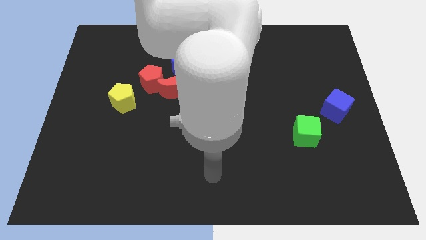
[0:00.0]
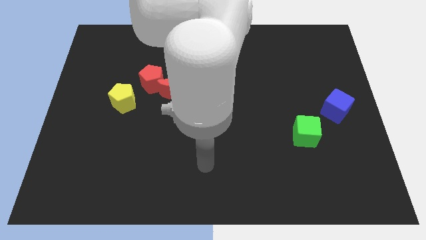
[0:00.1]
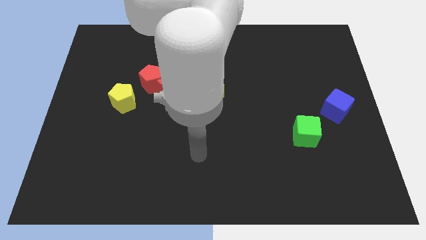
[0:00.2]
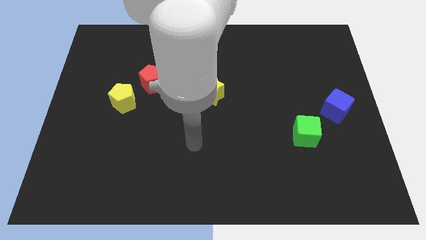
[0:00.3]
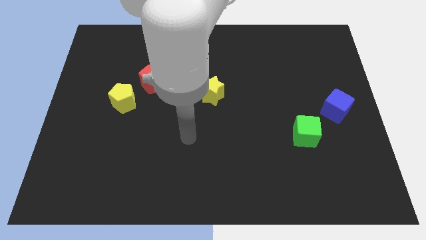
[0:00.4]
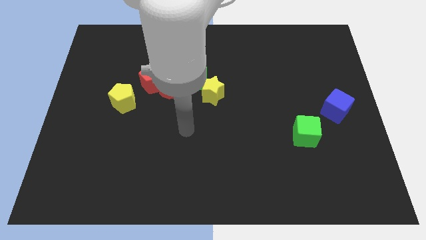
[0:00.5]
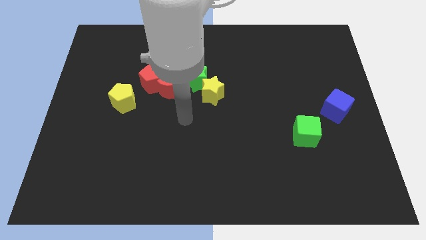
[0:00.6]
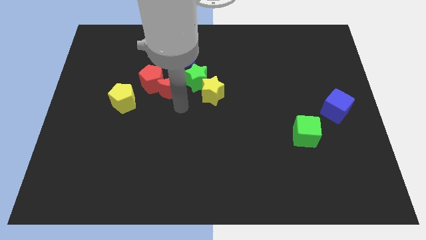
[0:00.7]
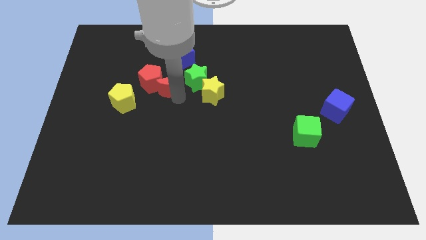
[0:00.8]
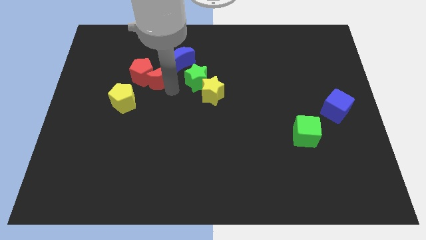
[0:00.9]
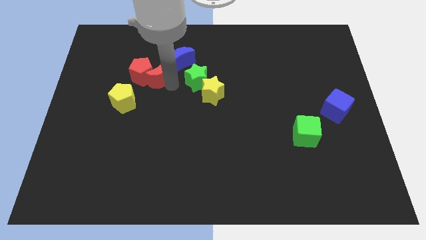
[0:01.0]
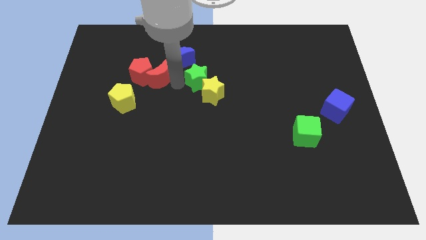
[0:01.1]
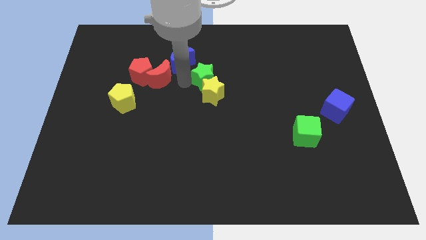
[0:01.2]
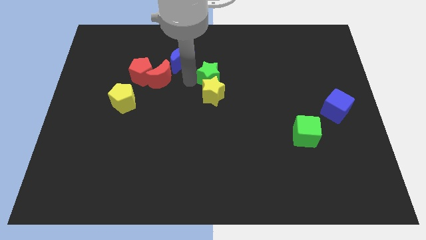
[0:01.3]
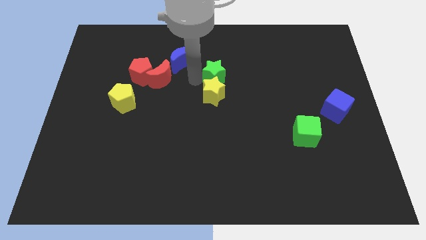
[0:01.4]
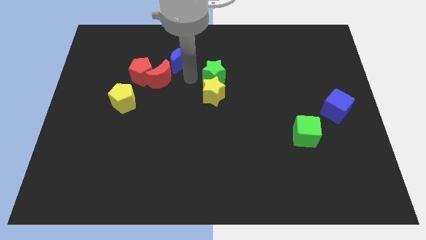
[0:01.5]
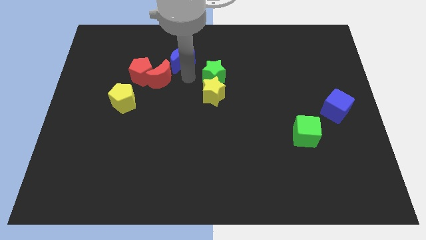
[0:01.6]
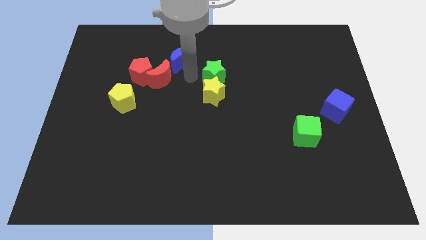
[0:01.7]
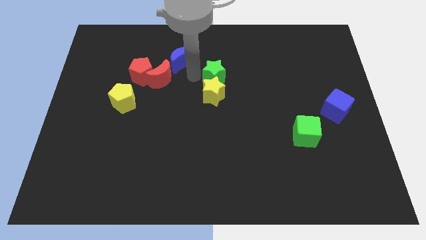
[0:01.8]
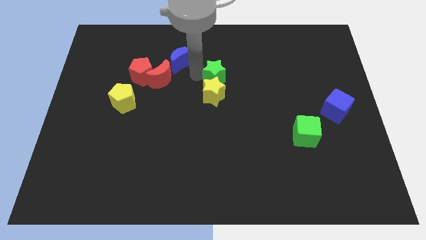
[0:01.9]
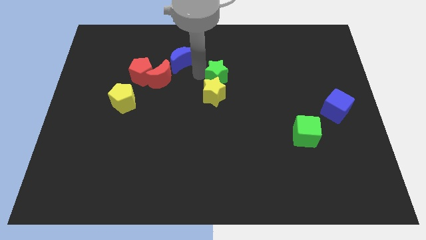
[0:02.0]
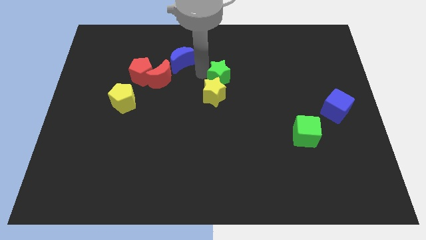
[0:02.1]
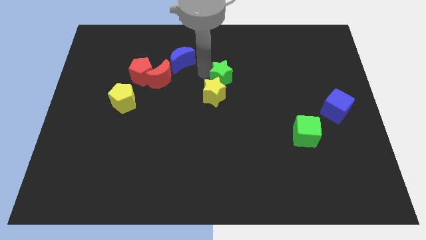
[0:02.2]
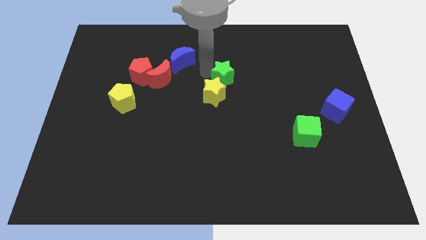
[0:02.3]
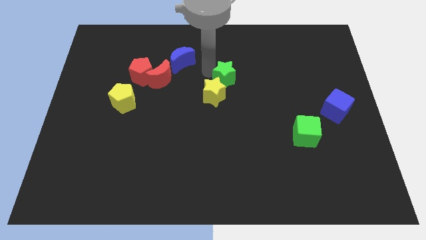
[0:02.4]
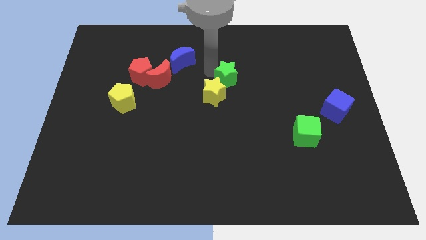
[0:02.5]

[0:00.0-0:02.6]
separate the green star from the clump

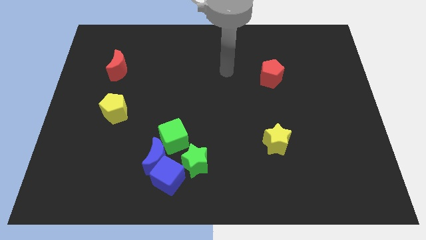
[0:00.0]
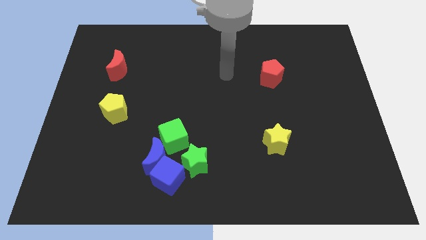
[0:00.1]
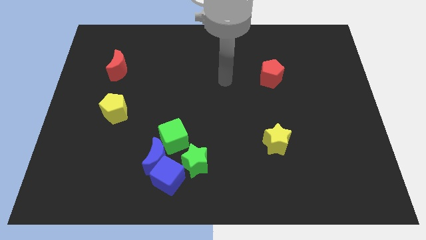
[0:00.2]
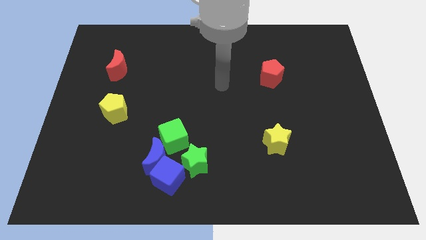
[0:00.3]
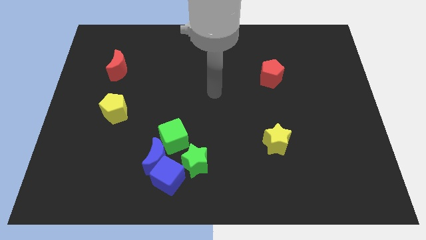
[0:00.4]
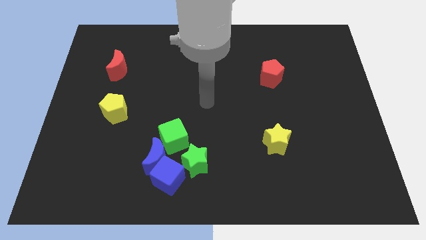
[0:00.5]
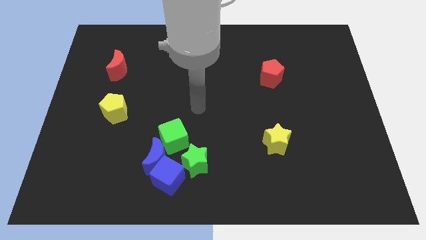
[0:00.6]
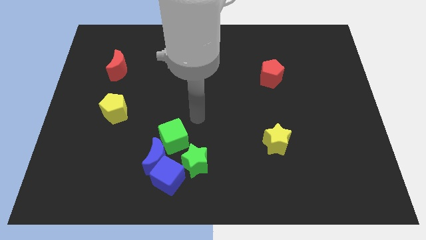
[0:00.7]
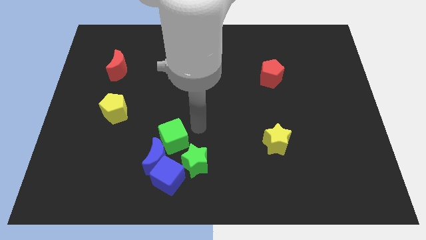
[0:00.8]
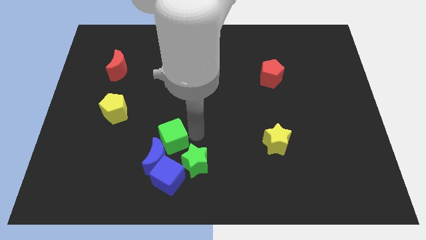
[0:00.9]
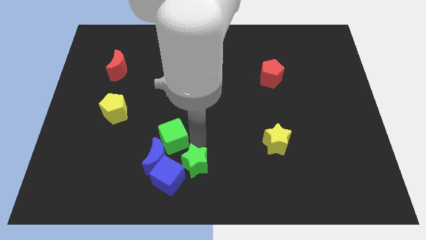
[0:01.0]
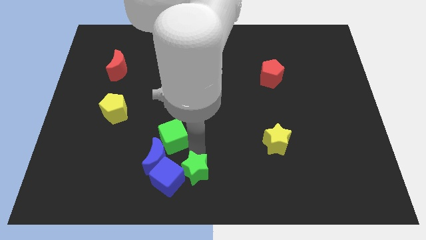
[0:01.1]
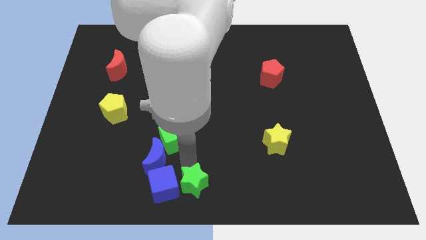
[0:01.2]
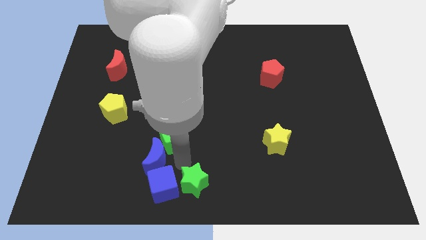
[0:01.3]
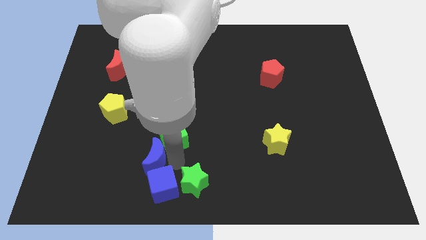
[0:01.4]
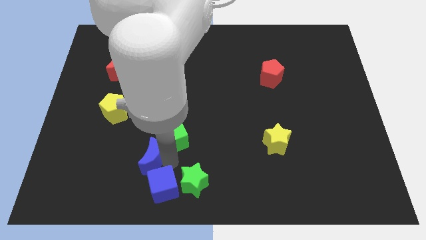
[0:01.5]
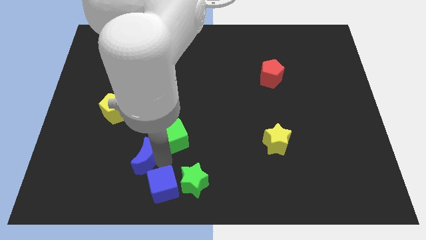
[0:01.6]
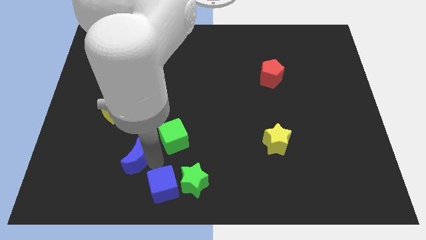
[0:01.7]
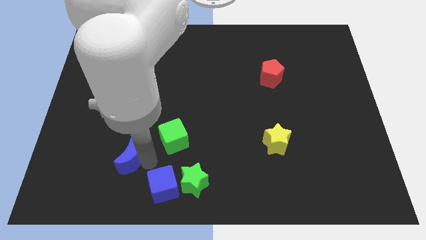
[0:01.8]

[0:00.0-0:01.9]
move the blue moon away from the clump

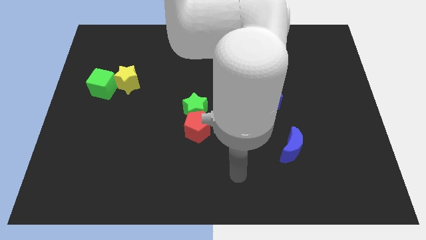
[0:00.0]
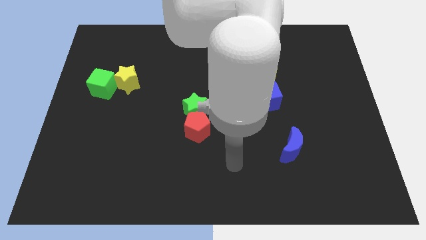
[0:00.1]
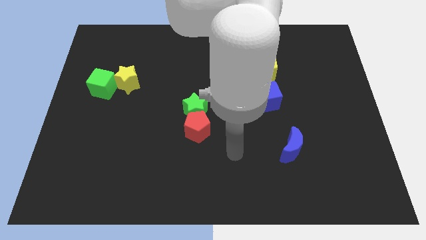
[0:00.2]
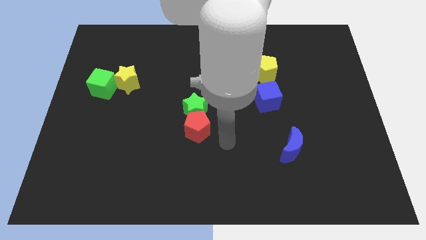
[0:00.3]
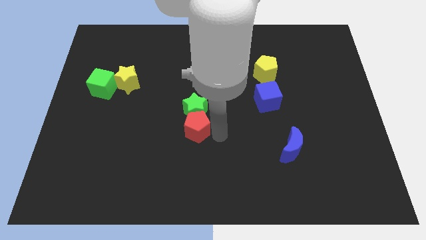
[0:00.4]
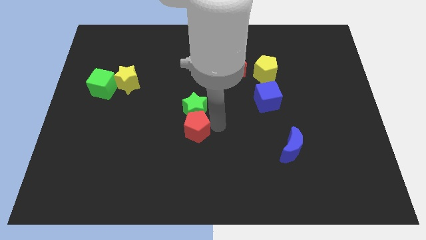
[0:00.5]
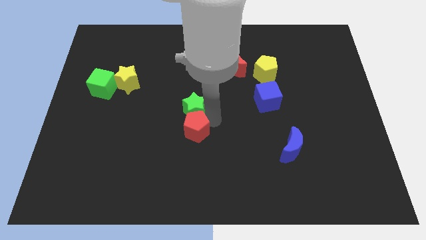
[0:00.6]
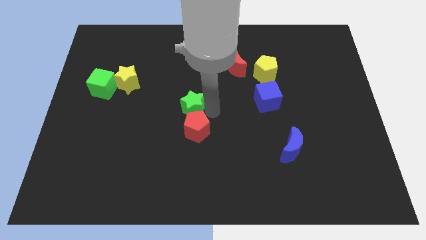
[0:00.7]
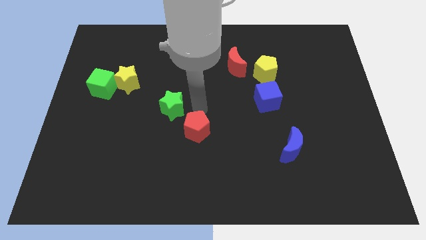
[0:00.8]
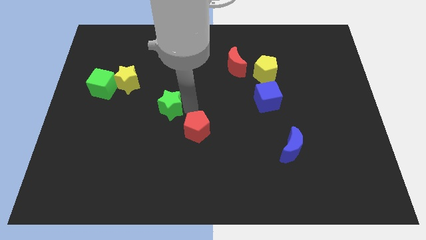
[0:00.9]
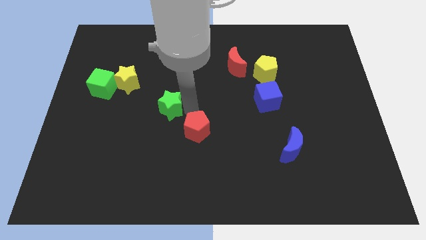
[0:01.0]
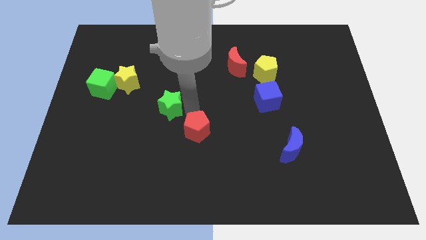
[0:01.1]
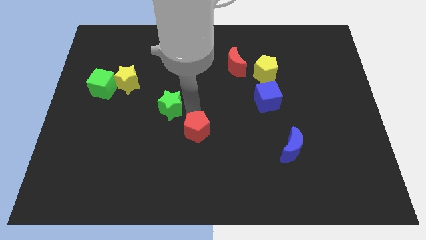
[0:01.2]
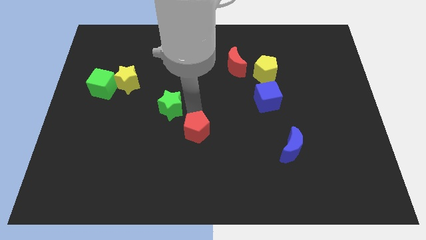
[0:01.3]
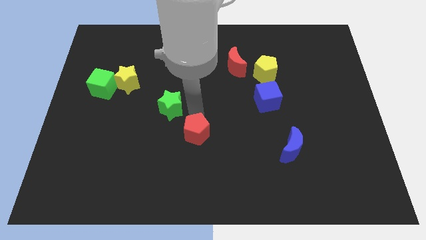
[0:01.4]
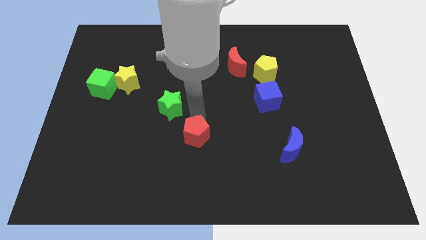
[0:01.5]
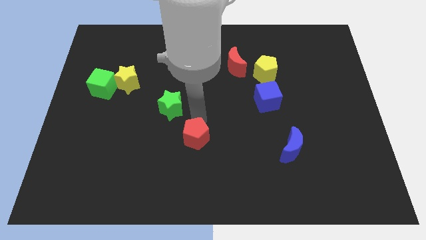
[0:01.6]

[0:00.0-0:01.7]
move the red pentagon away from the green star

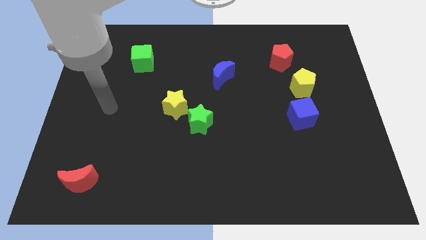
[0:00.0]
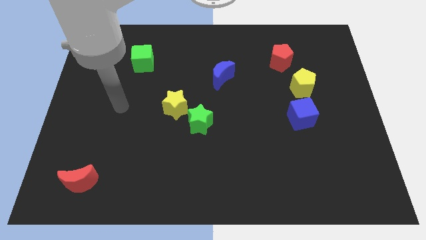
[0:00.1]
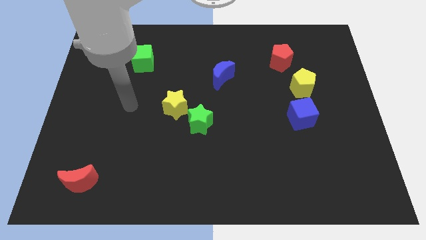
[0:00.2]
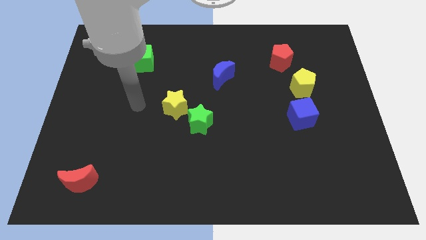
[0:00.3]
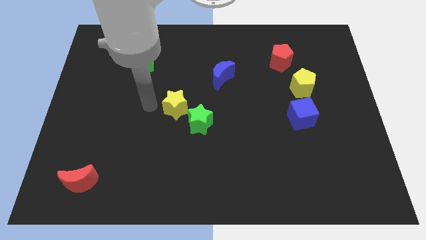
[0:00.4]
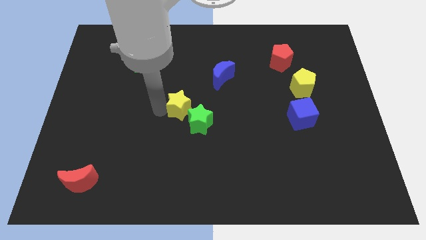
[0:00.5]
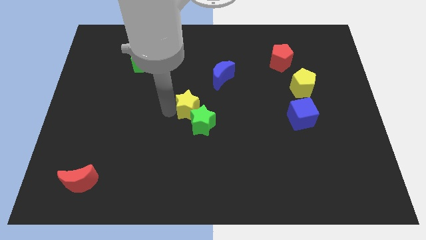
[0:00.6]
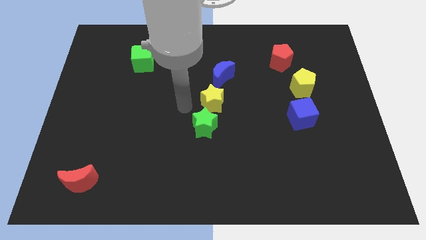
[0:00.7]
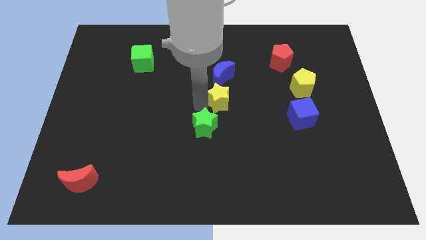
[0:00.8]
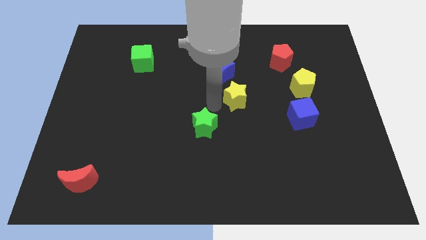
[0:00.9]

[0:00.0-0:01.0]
pull the green star apart from the yellow star

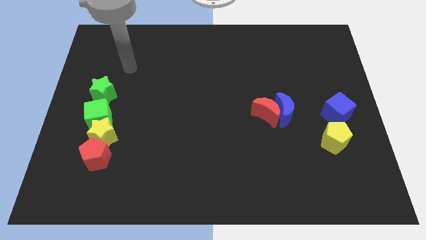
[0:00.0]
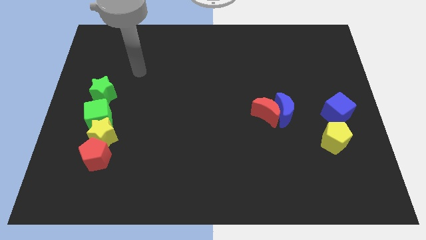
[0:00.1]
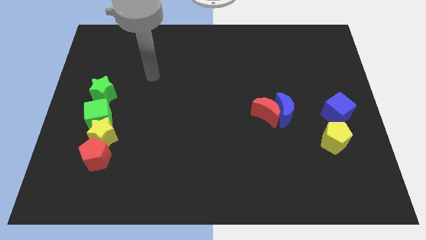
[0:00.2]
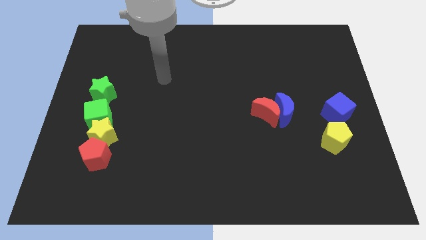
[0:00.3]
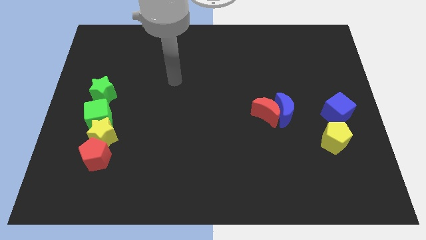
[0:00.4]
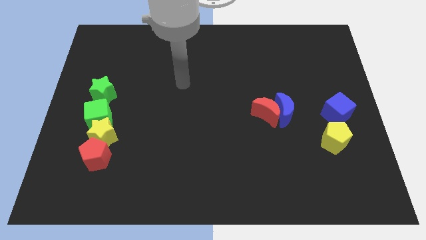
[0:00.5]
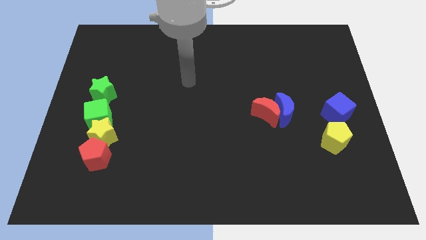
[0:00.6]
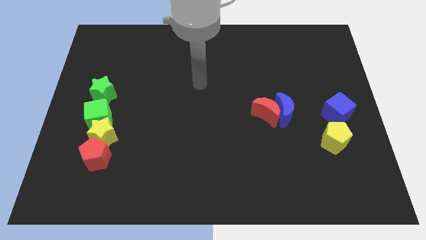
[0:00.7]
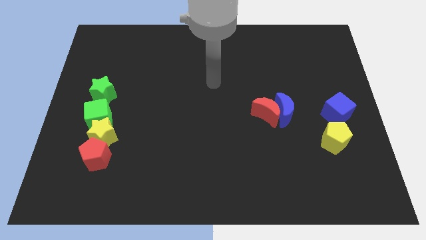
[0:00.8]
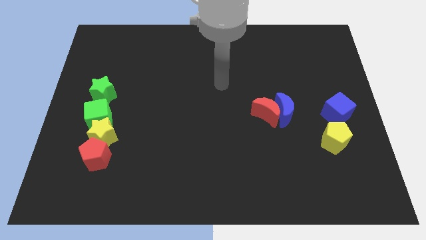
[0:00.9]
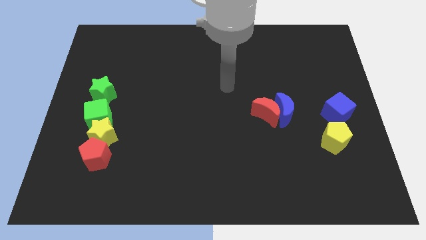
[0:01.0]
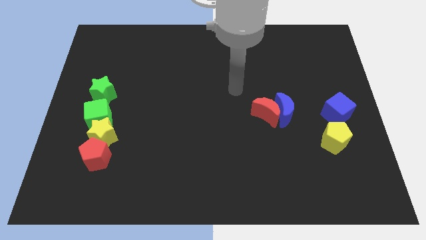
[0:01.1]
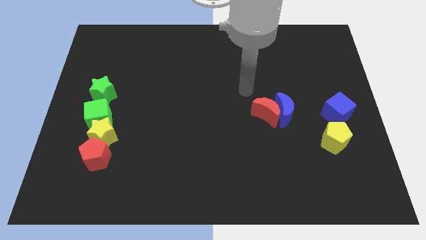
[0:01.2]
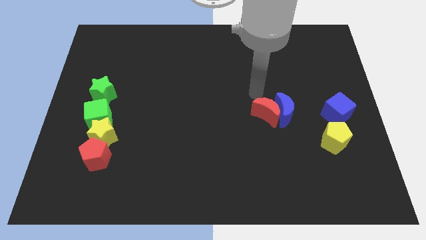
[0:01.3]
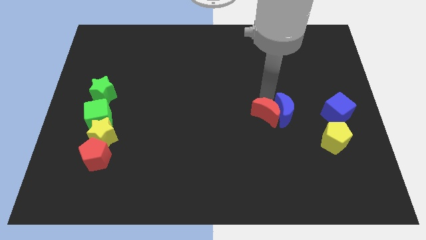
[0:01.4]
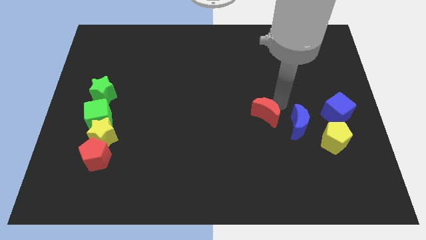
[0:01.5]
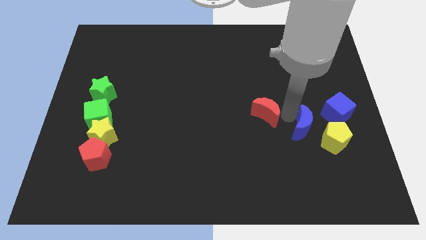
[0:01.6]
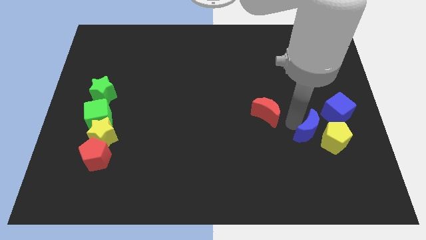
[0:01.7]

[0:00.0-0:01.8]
separate the red moon from the blue moon

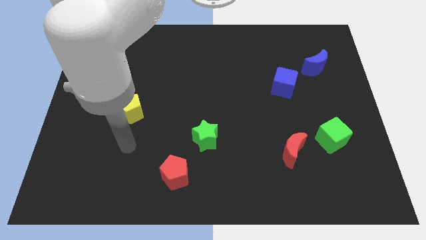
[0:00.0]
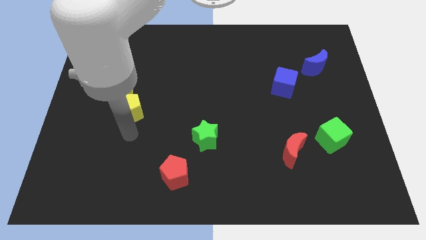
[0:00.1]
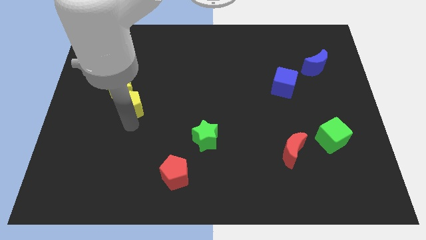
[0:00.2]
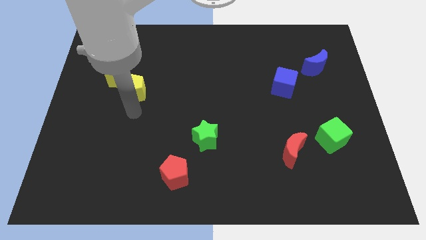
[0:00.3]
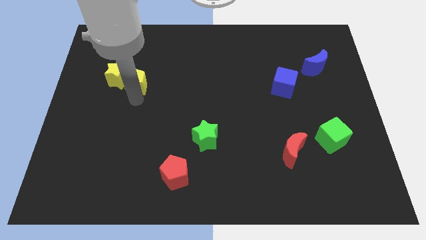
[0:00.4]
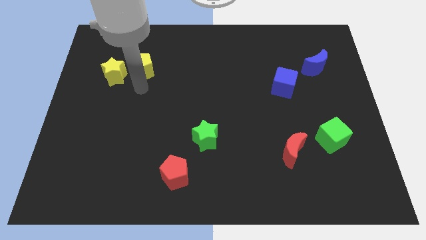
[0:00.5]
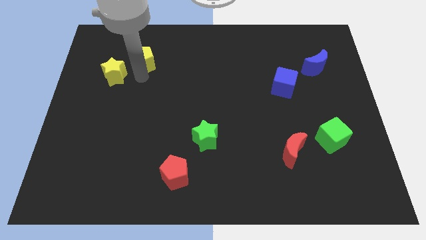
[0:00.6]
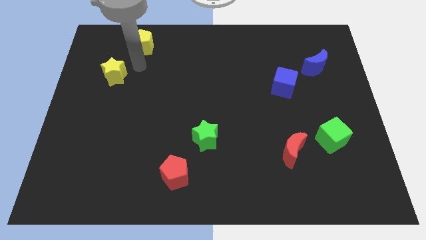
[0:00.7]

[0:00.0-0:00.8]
move the yellow star away from the yellow pentagon
